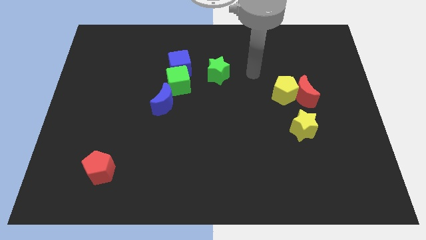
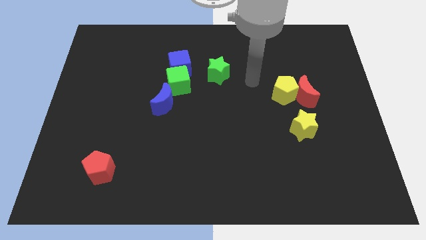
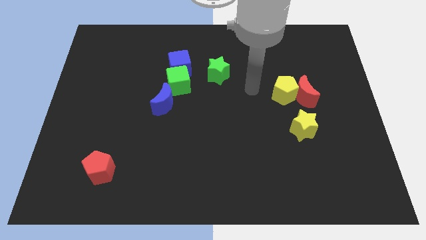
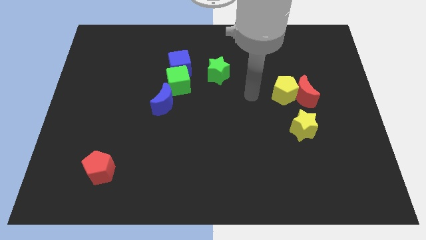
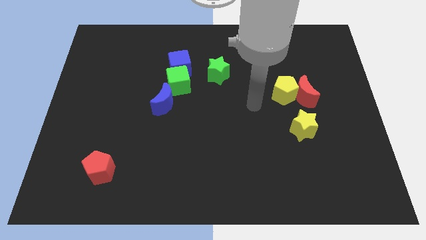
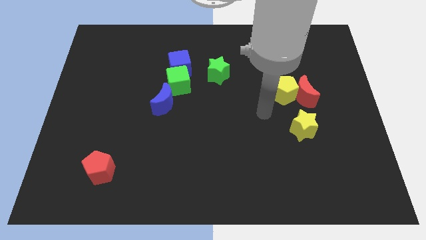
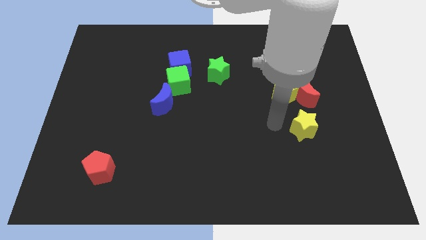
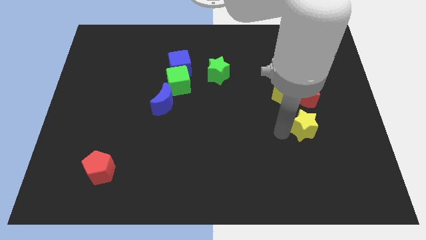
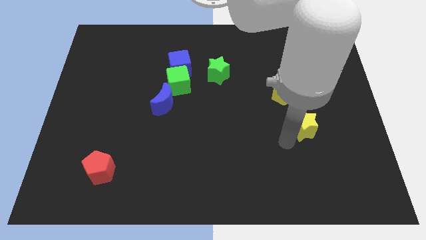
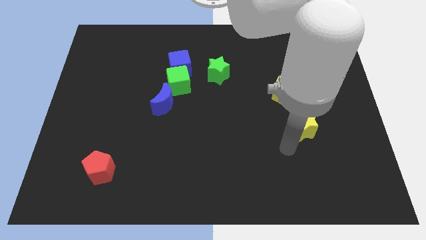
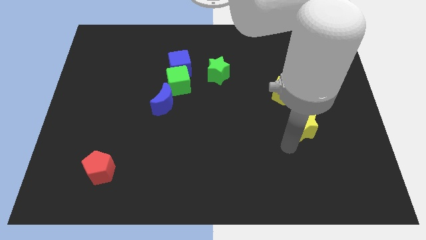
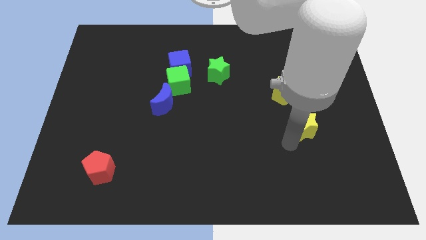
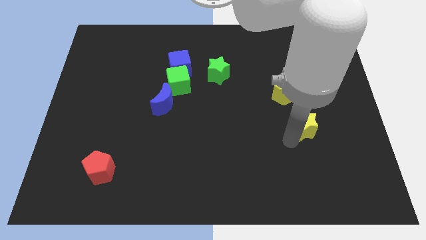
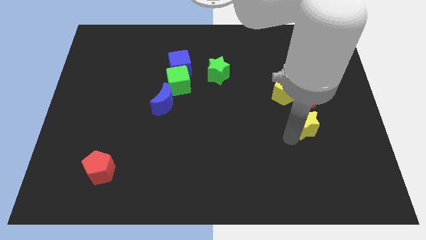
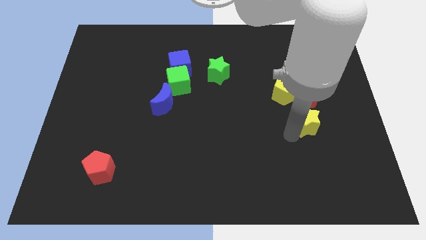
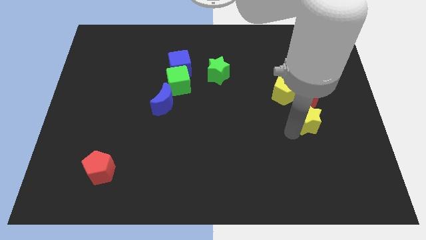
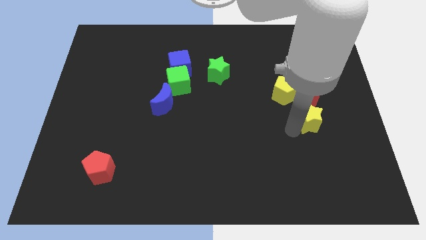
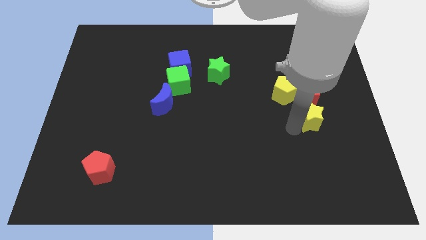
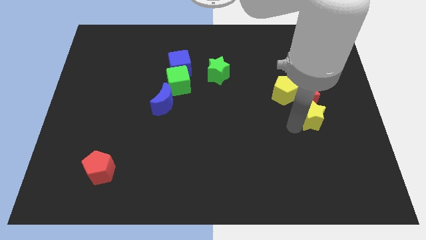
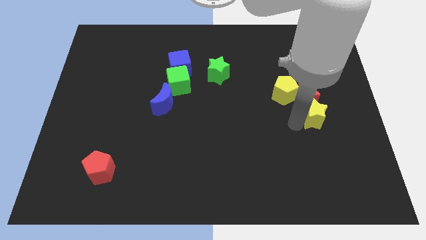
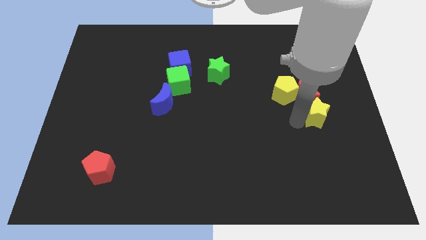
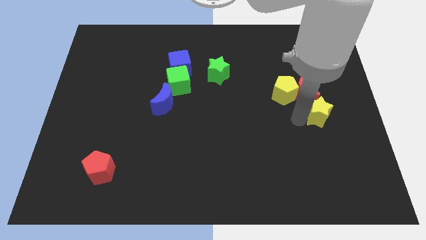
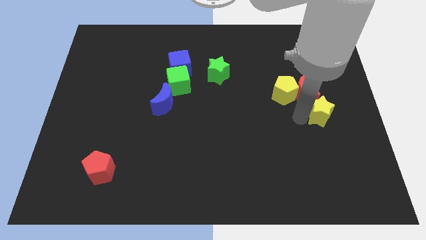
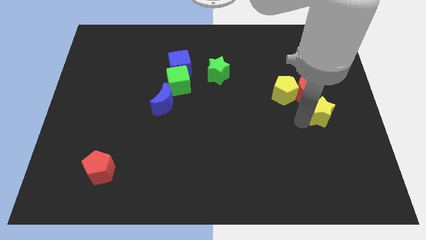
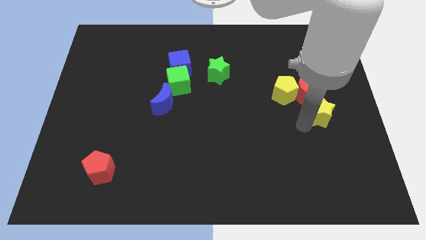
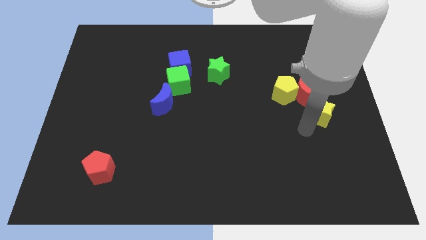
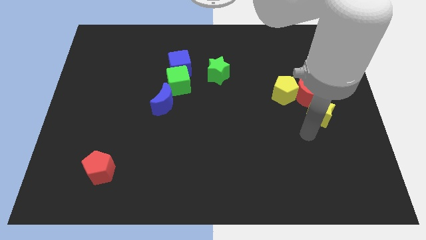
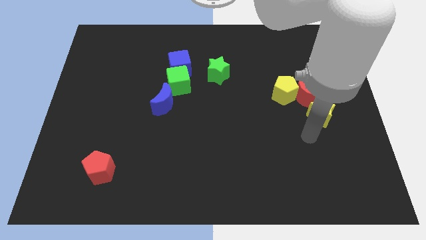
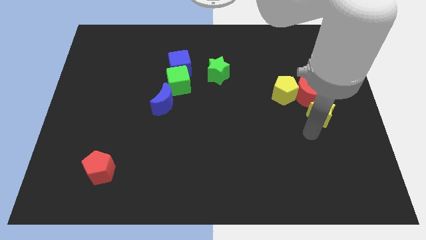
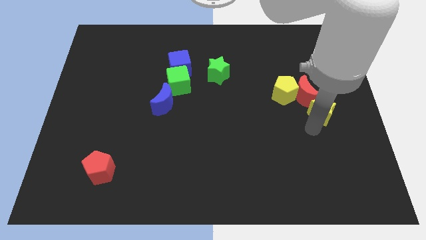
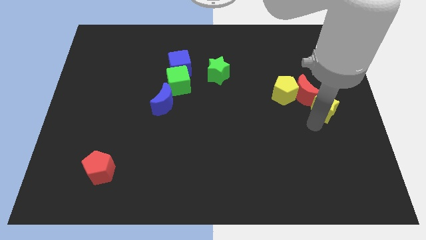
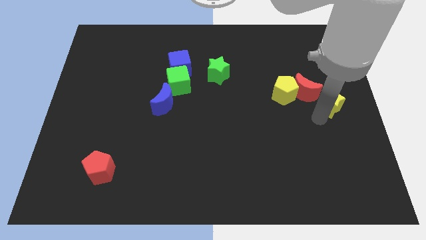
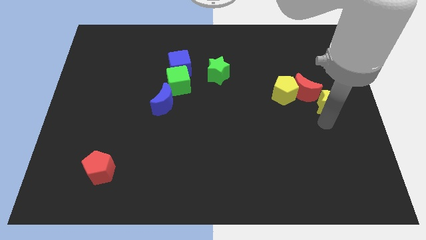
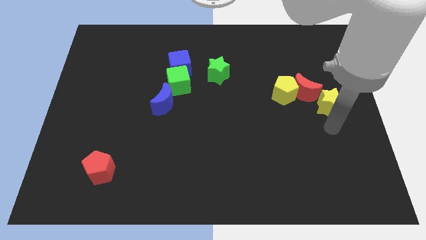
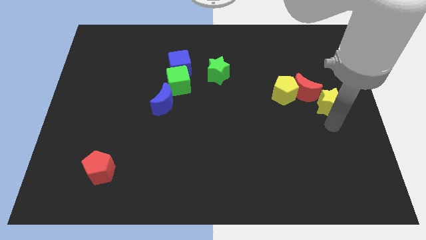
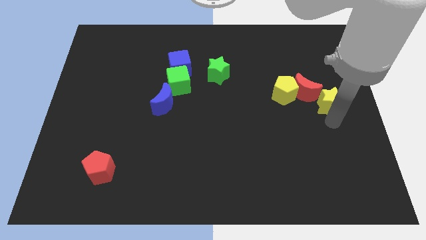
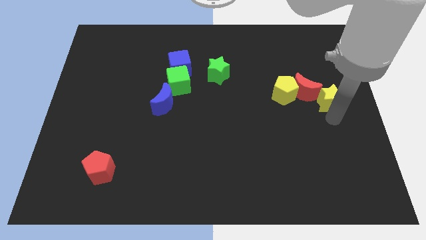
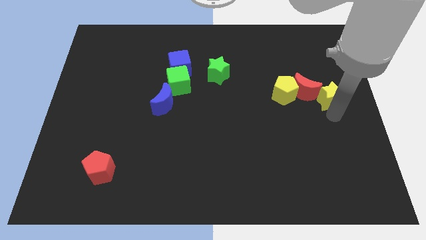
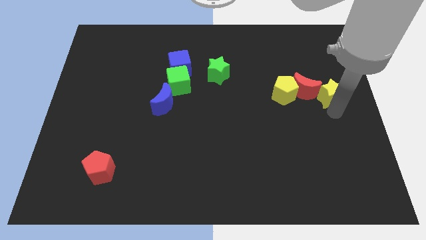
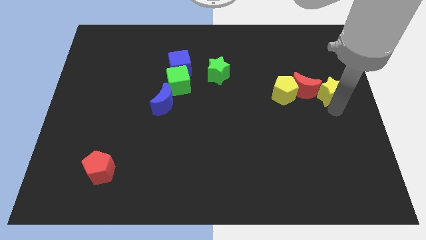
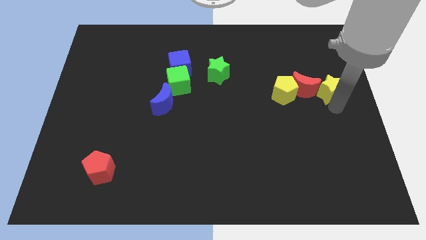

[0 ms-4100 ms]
move the yellow star diagonally up and to the right of the red moon

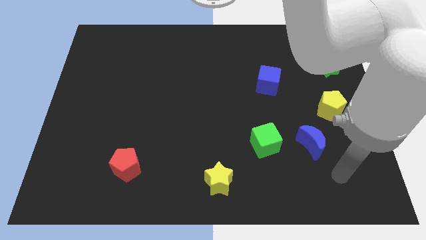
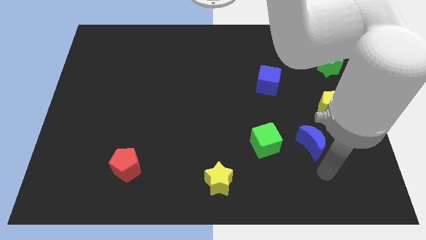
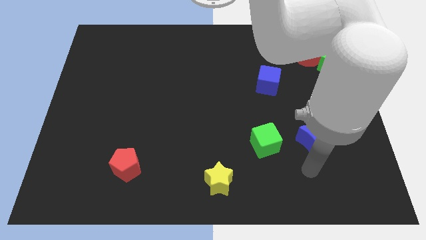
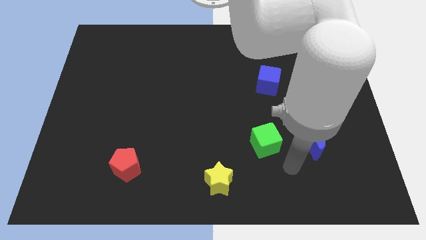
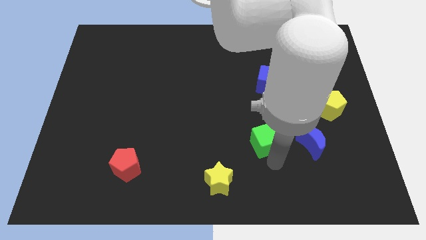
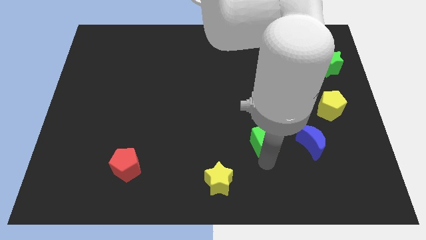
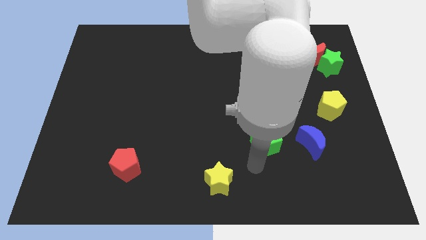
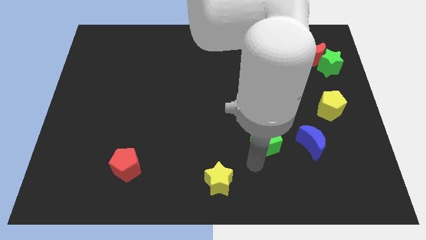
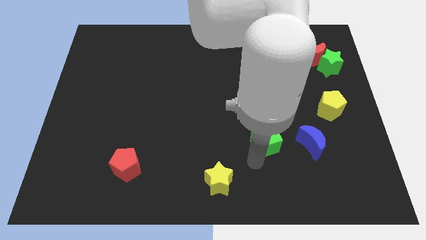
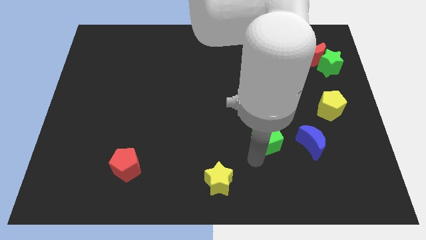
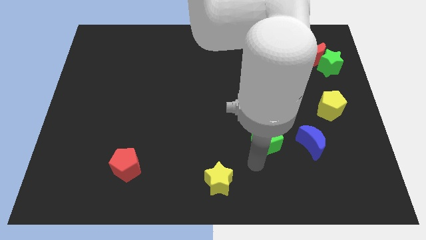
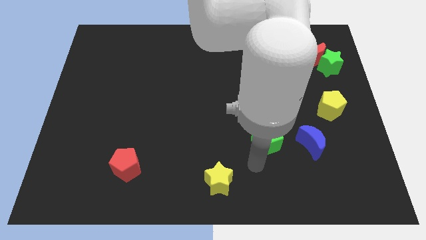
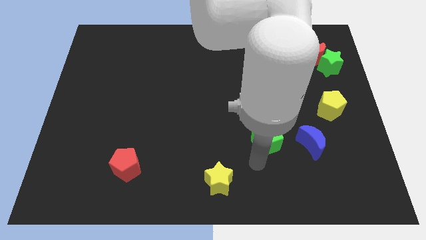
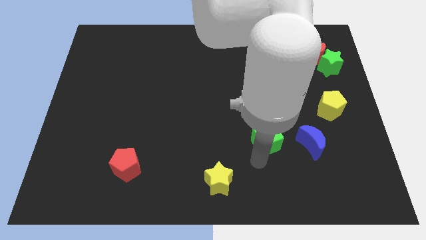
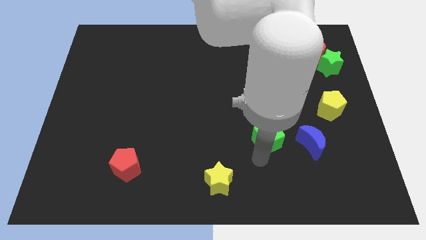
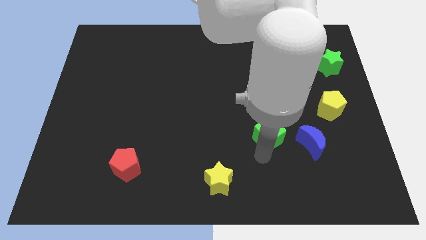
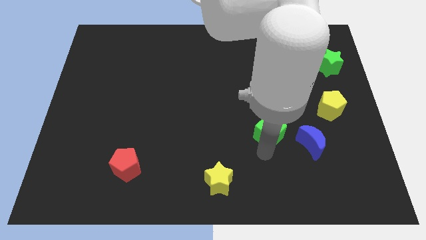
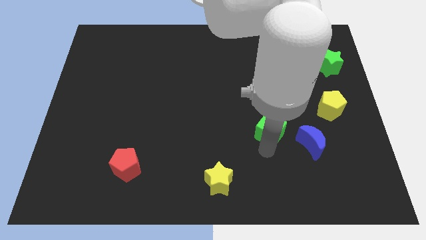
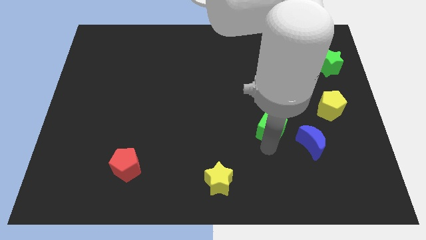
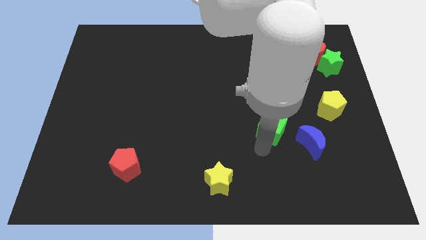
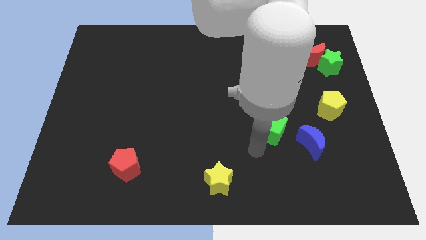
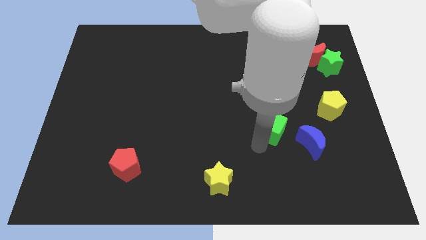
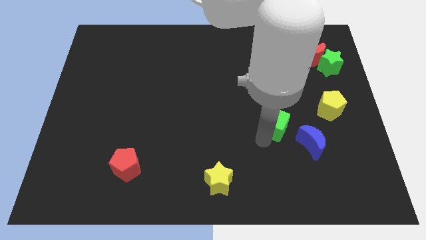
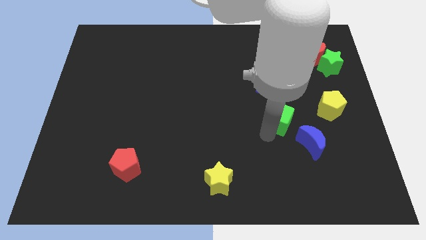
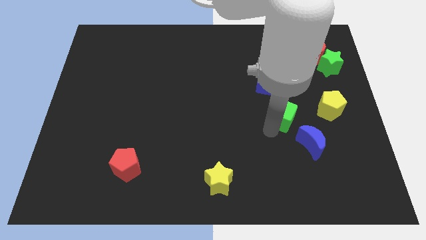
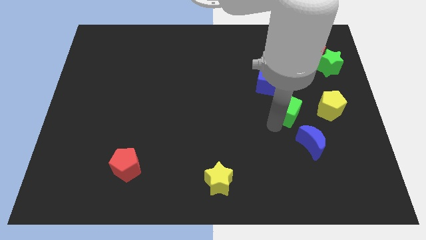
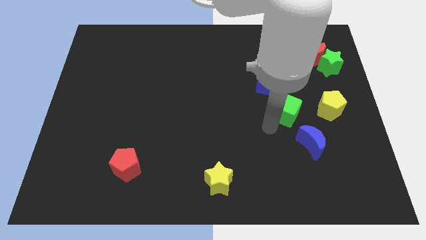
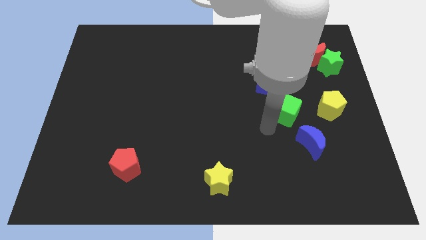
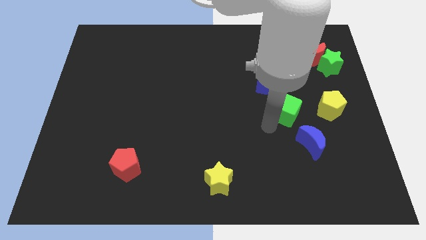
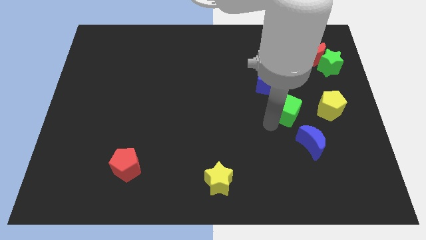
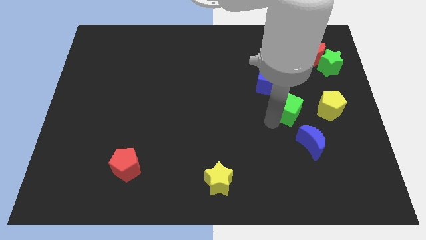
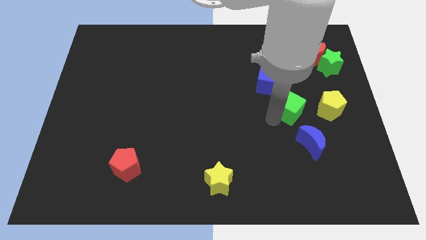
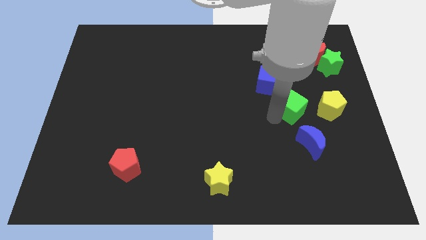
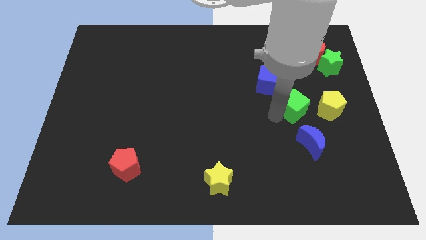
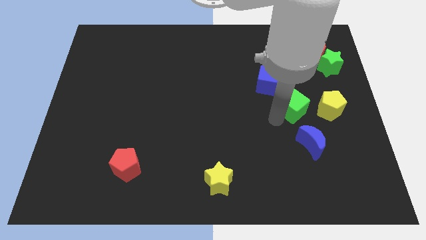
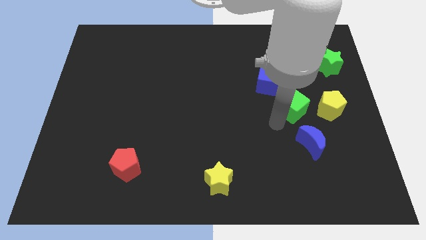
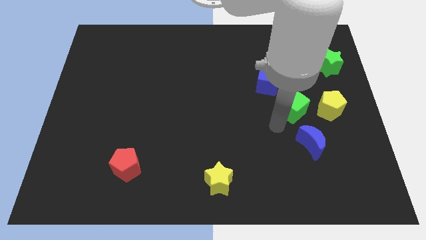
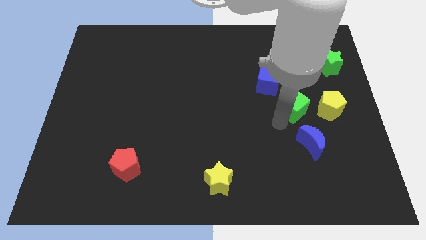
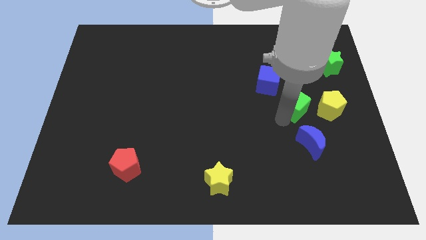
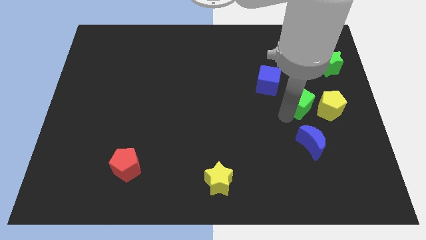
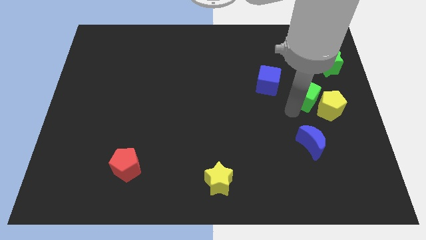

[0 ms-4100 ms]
put the green cube right of the blue cube
